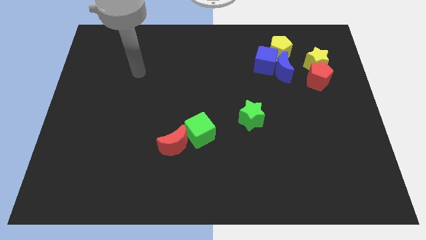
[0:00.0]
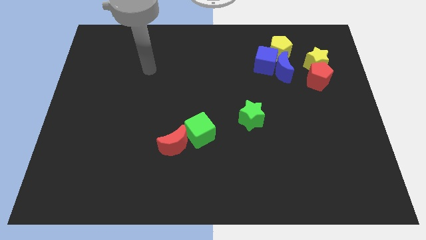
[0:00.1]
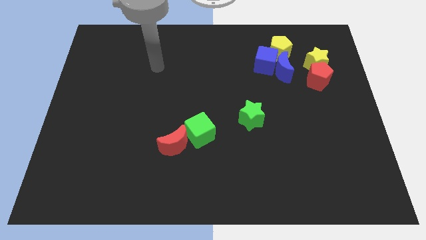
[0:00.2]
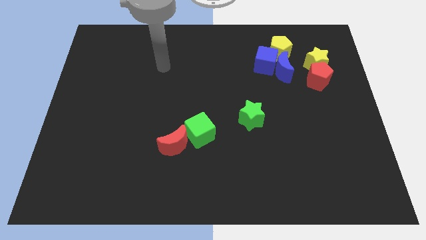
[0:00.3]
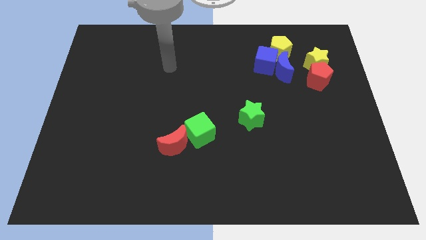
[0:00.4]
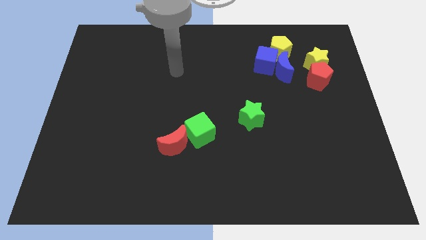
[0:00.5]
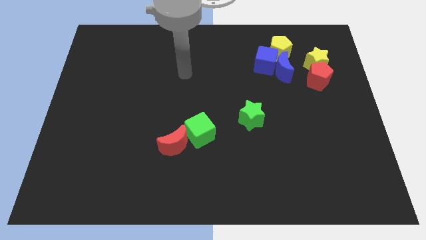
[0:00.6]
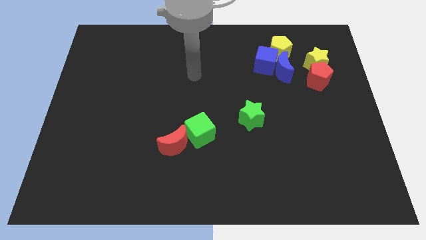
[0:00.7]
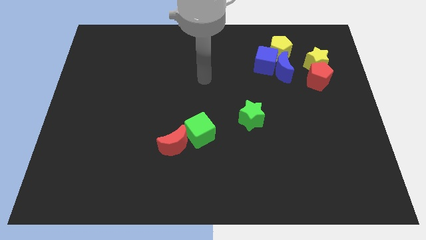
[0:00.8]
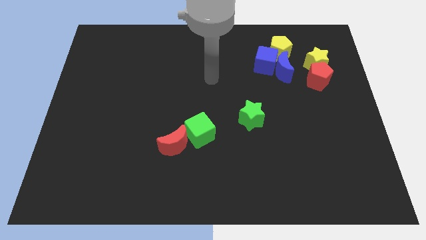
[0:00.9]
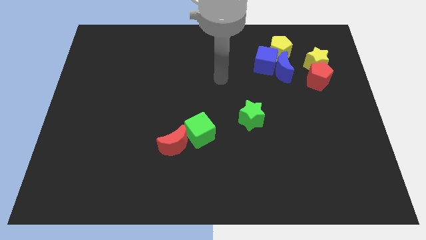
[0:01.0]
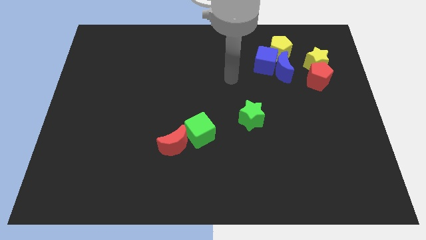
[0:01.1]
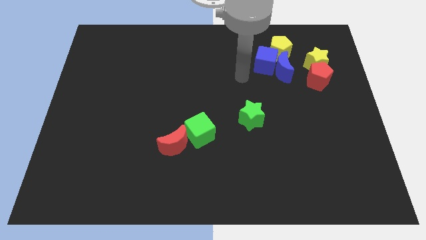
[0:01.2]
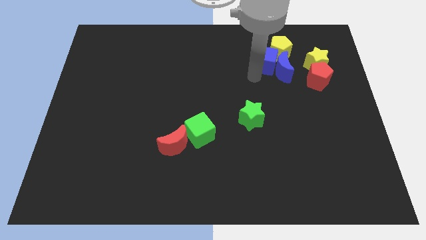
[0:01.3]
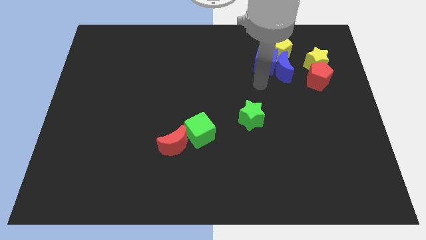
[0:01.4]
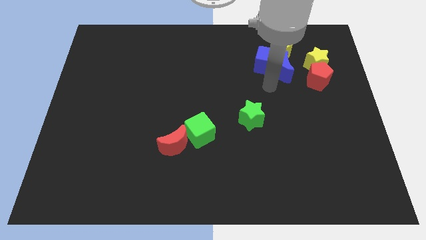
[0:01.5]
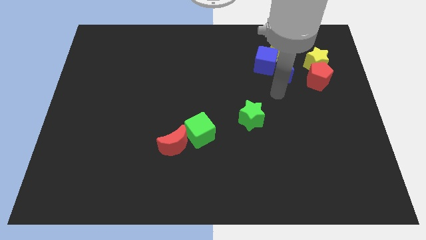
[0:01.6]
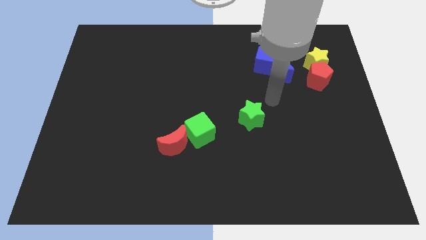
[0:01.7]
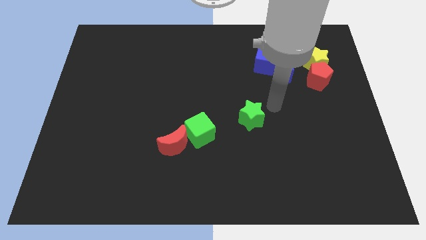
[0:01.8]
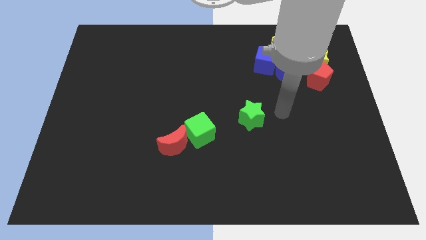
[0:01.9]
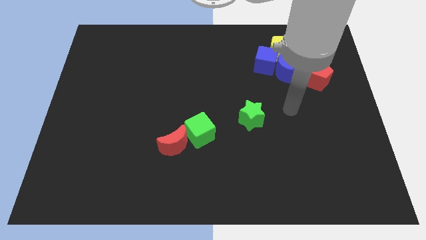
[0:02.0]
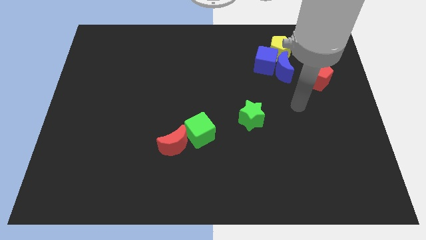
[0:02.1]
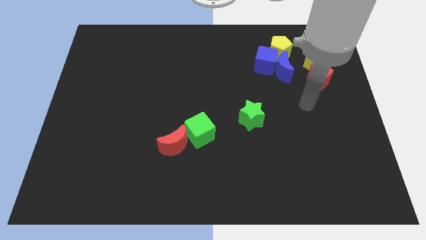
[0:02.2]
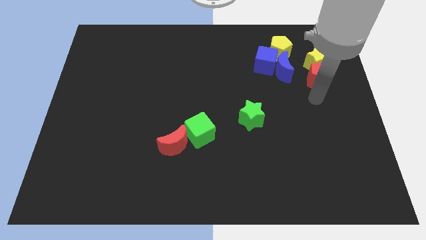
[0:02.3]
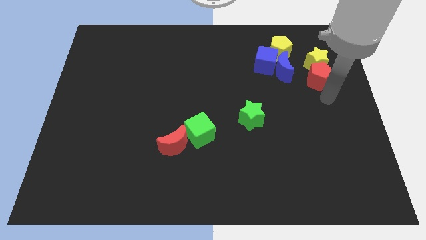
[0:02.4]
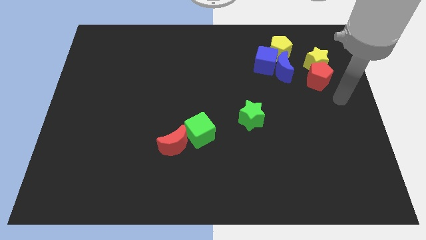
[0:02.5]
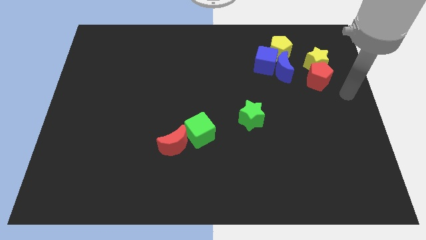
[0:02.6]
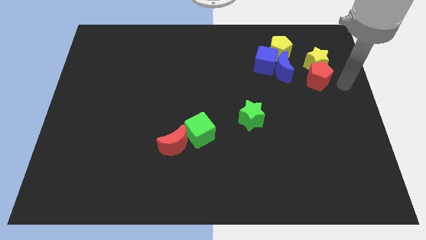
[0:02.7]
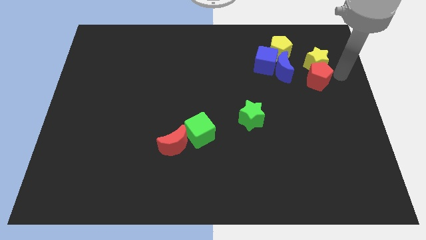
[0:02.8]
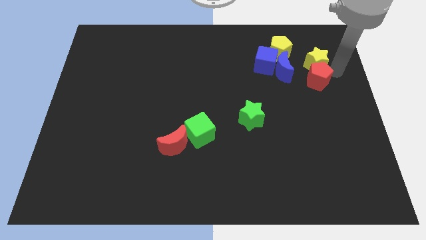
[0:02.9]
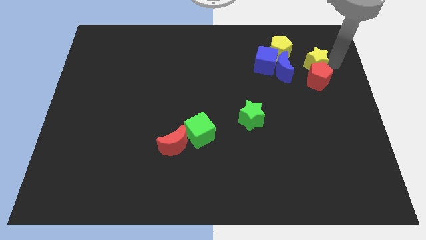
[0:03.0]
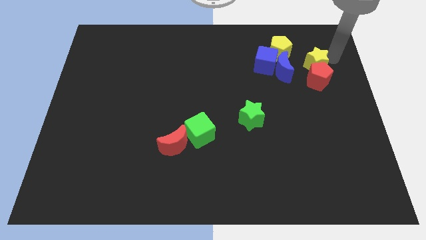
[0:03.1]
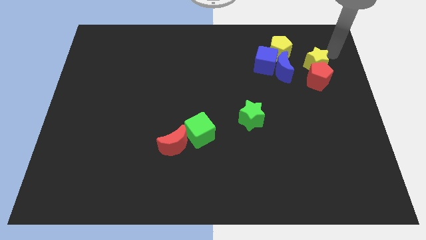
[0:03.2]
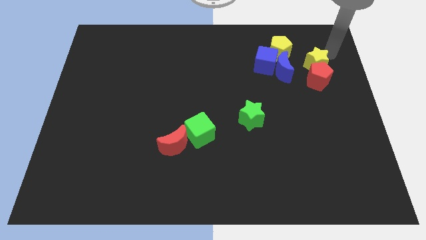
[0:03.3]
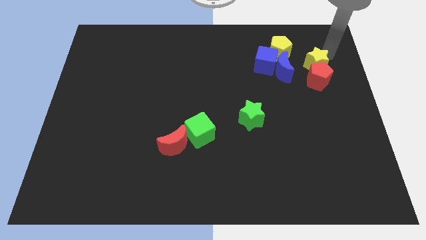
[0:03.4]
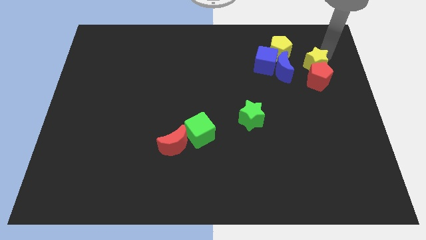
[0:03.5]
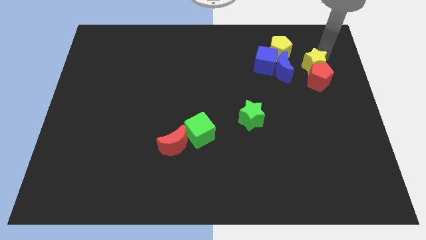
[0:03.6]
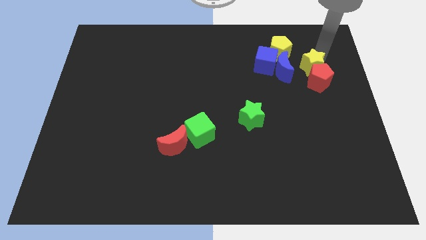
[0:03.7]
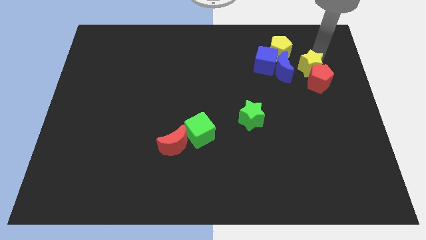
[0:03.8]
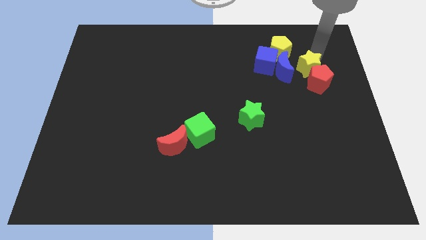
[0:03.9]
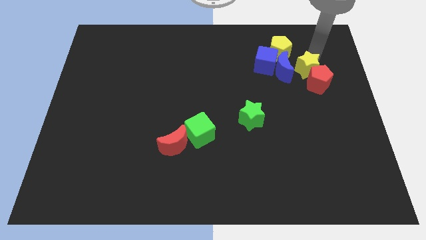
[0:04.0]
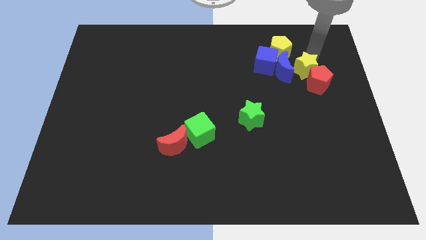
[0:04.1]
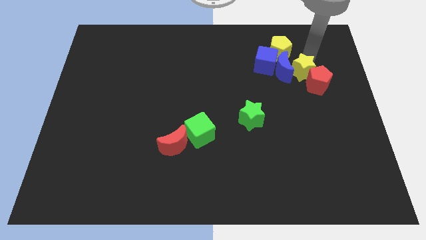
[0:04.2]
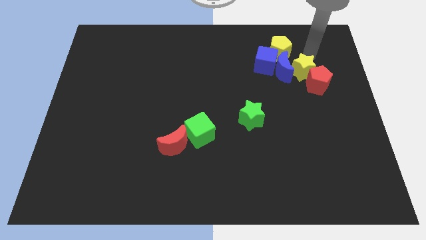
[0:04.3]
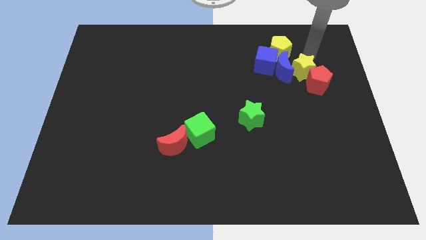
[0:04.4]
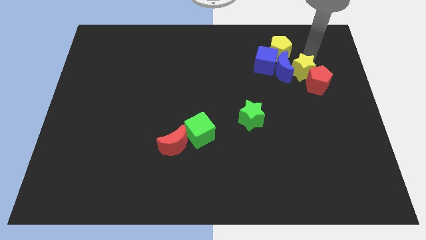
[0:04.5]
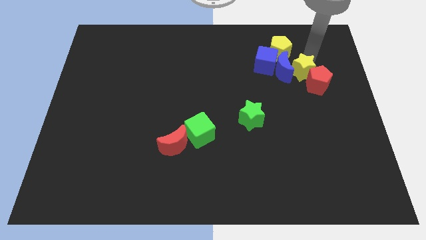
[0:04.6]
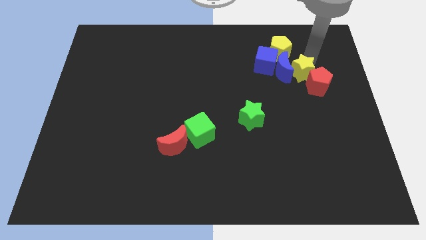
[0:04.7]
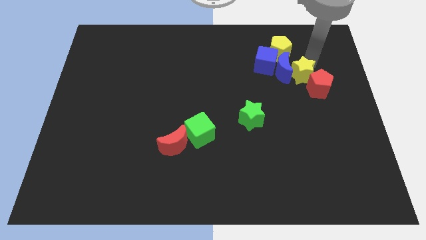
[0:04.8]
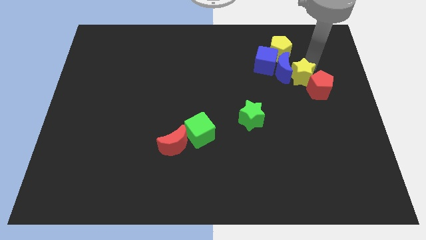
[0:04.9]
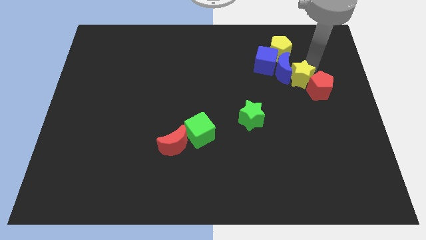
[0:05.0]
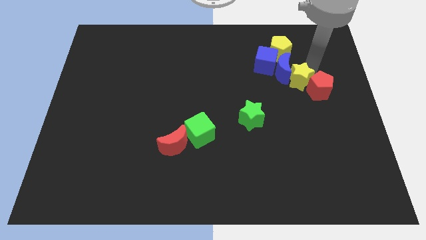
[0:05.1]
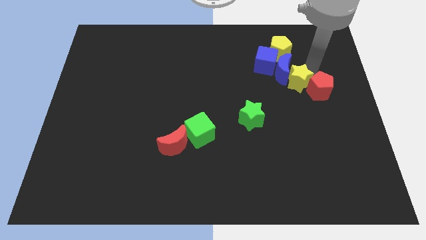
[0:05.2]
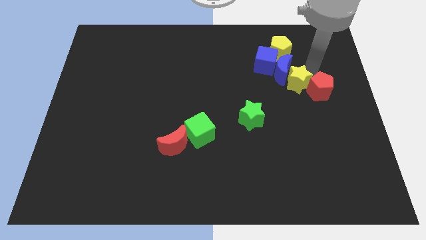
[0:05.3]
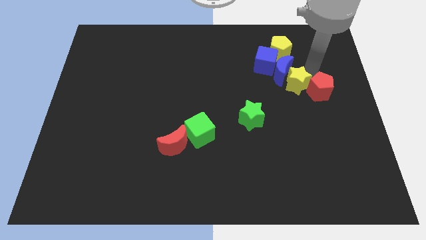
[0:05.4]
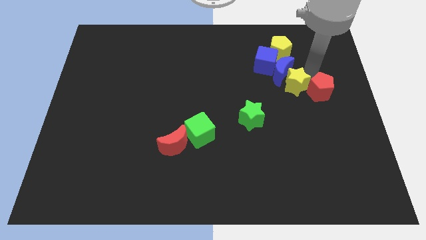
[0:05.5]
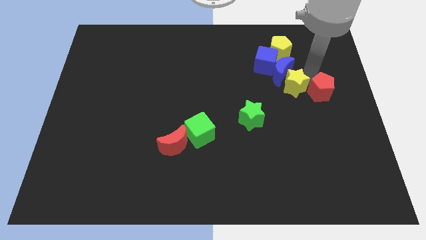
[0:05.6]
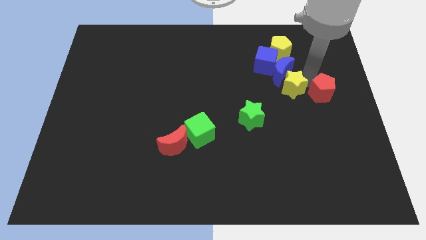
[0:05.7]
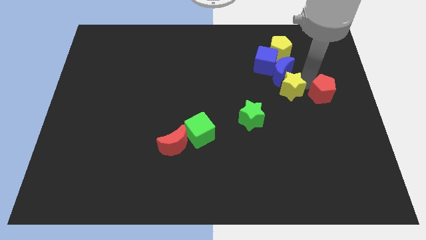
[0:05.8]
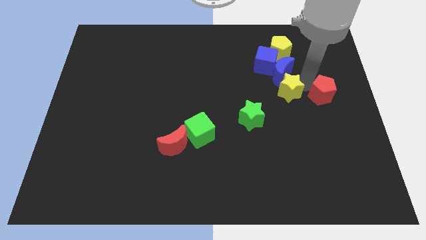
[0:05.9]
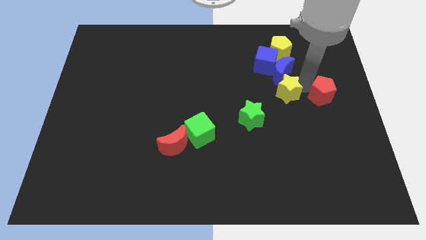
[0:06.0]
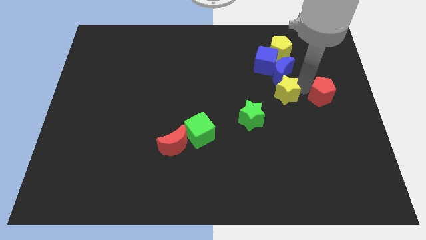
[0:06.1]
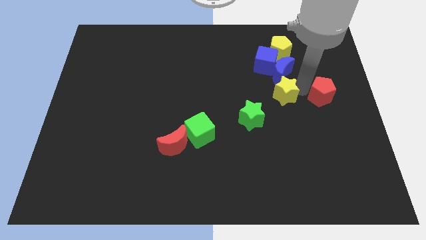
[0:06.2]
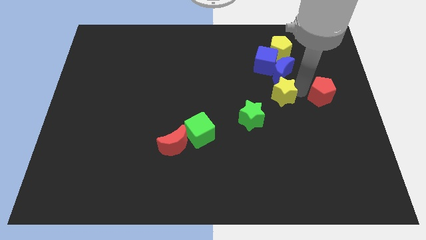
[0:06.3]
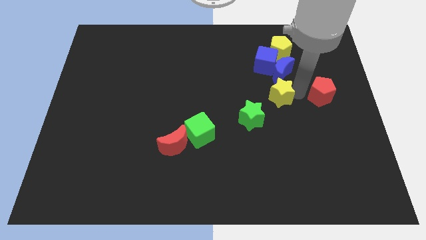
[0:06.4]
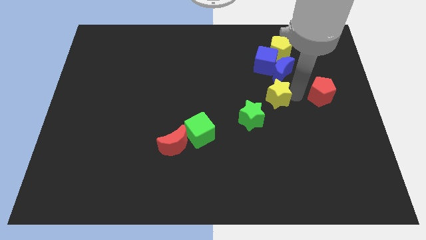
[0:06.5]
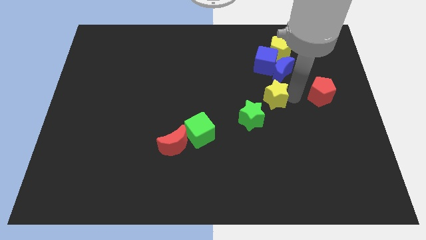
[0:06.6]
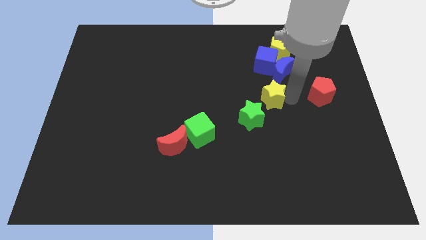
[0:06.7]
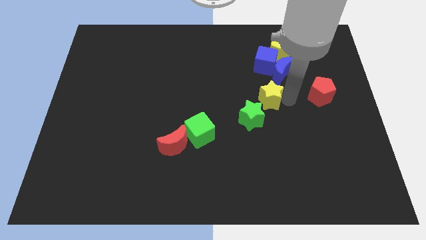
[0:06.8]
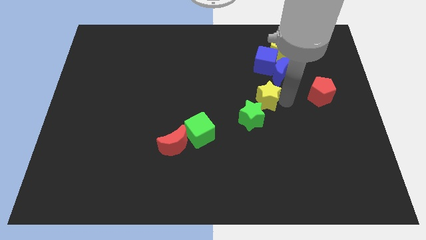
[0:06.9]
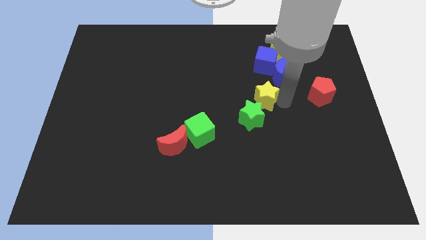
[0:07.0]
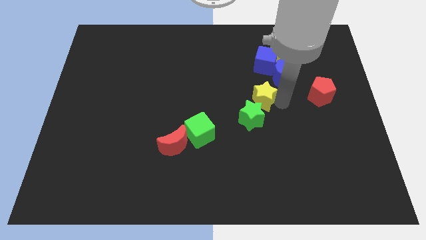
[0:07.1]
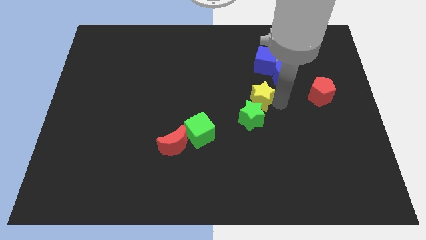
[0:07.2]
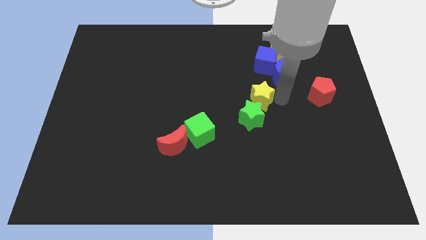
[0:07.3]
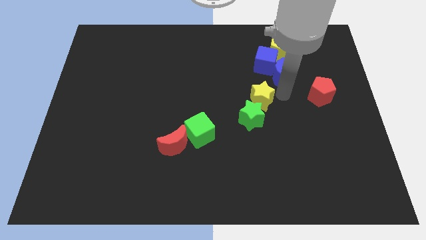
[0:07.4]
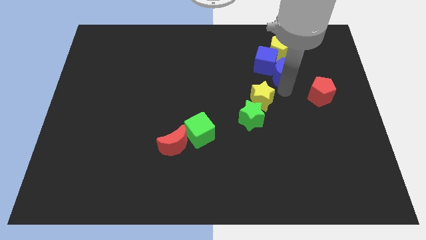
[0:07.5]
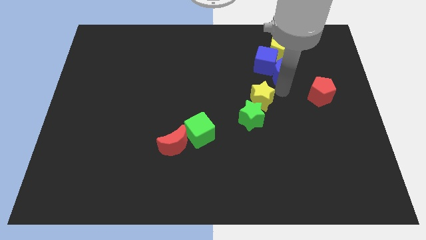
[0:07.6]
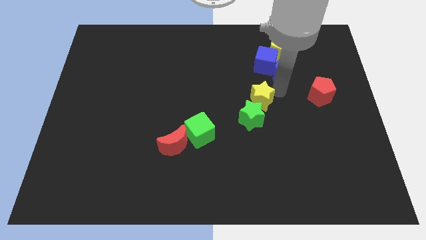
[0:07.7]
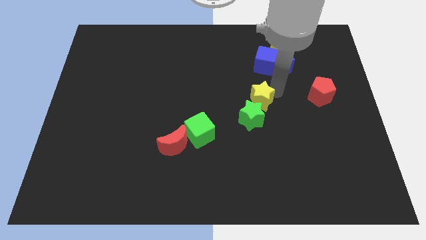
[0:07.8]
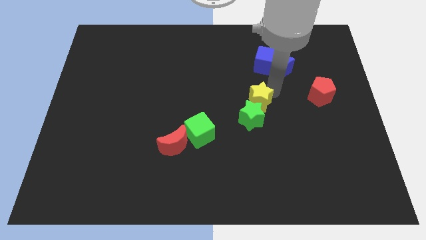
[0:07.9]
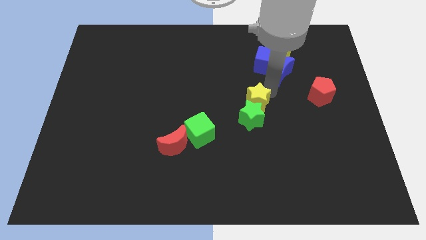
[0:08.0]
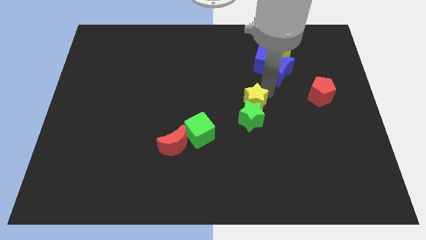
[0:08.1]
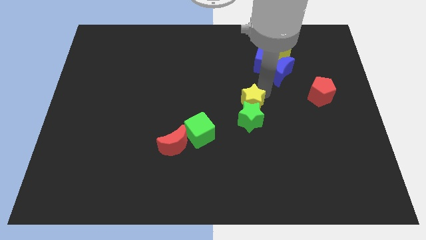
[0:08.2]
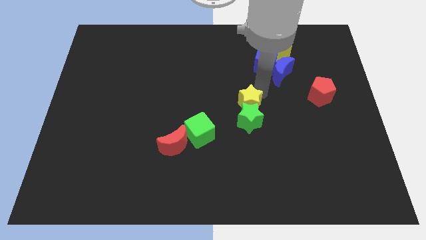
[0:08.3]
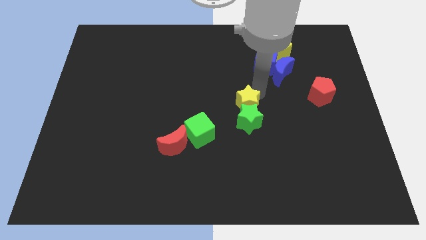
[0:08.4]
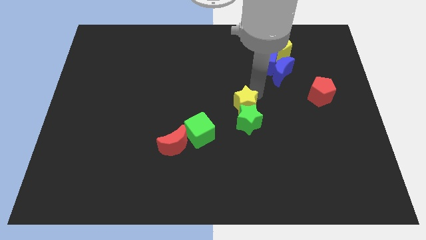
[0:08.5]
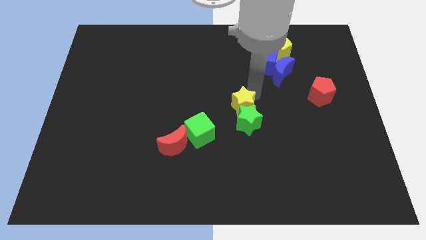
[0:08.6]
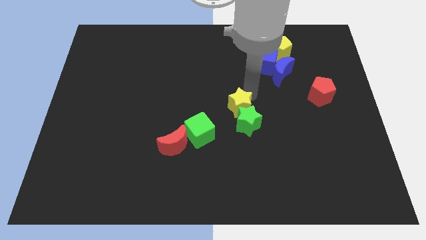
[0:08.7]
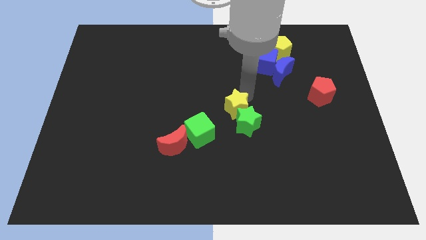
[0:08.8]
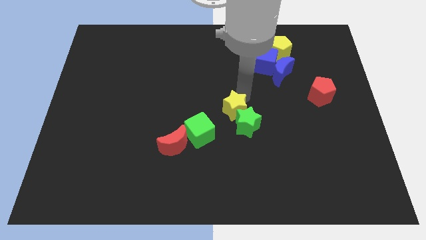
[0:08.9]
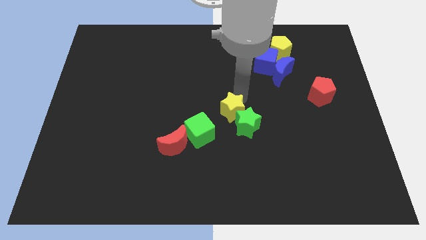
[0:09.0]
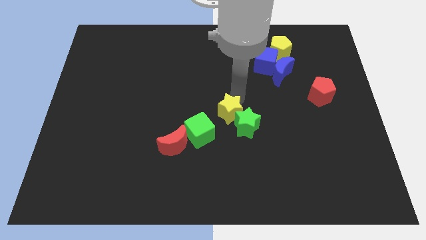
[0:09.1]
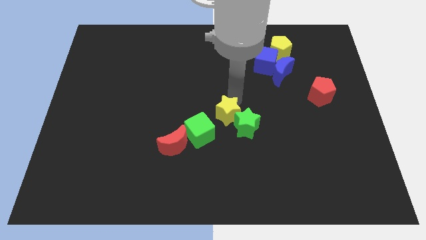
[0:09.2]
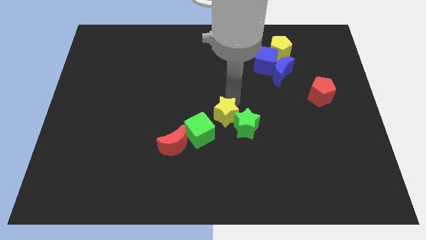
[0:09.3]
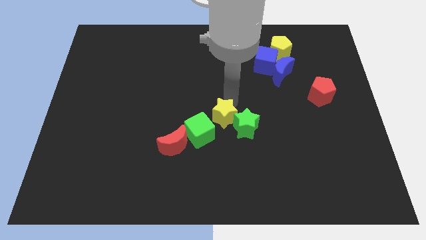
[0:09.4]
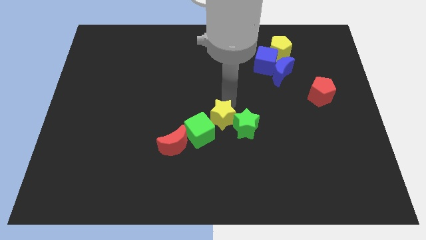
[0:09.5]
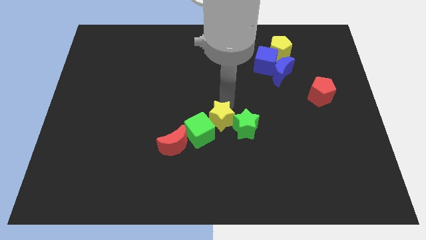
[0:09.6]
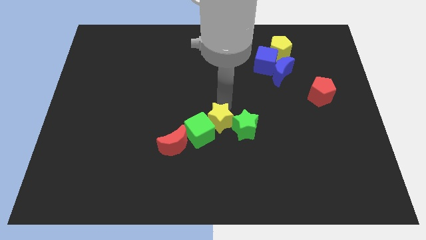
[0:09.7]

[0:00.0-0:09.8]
put the yellow star close to the green cube
